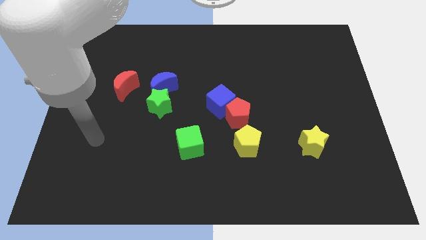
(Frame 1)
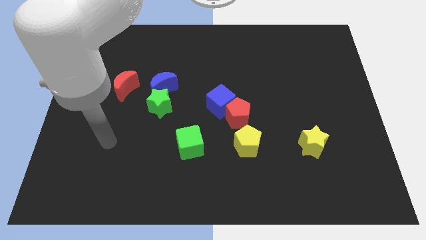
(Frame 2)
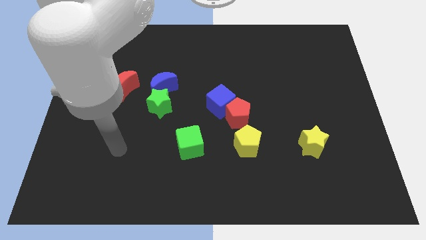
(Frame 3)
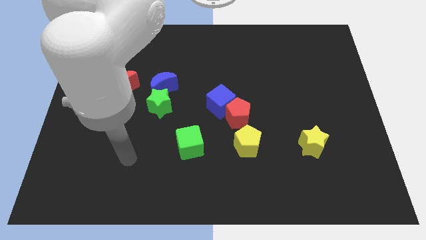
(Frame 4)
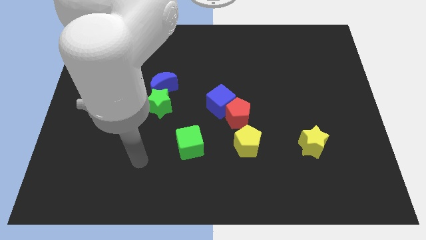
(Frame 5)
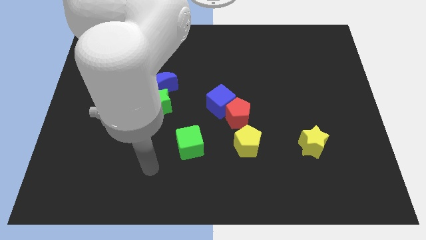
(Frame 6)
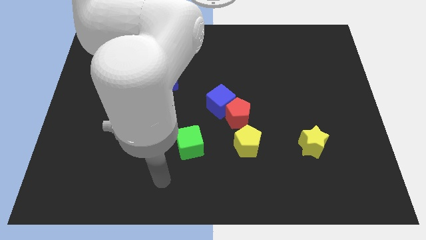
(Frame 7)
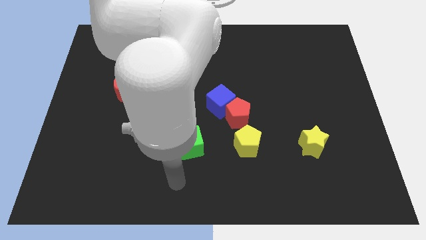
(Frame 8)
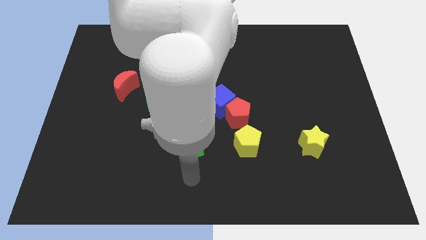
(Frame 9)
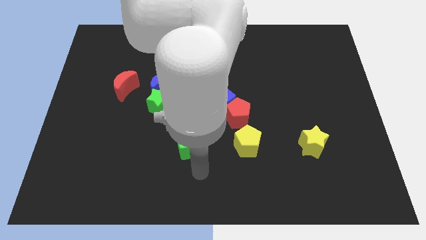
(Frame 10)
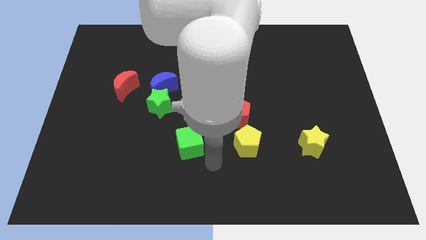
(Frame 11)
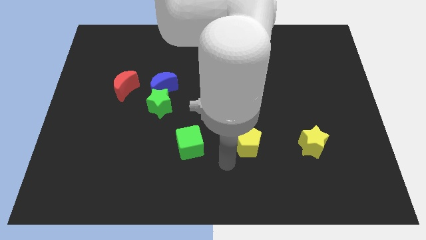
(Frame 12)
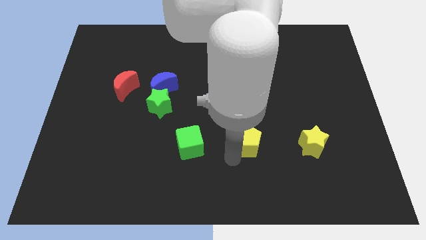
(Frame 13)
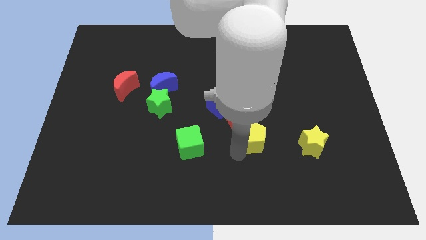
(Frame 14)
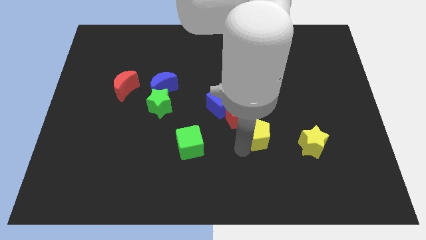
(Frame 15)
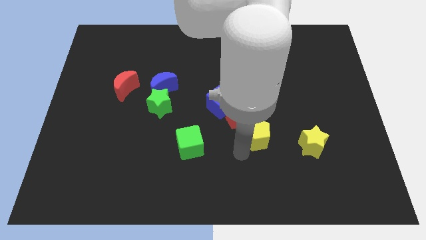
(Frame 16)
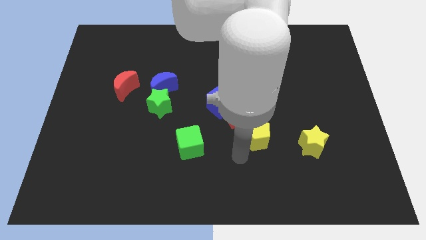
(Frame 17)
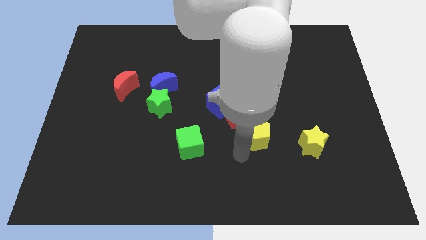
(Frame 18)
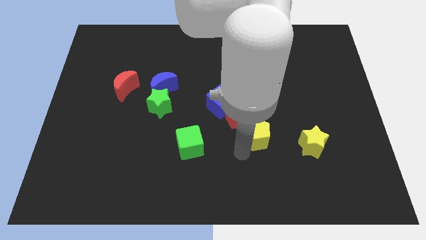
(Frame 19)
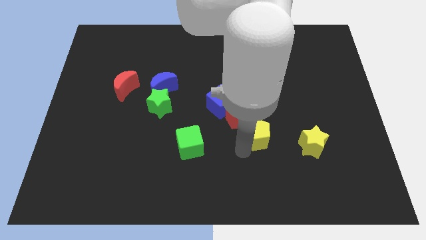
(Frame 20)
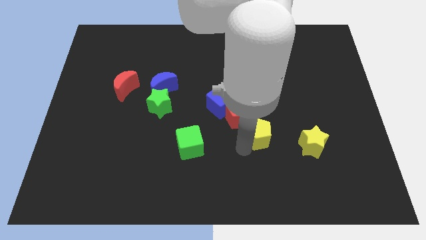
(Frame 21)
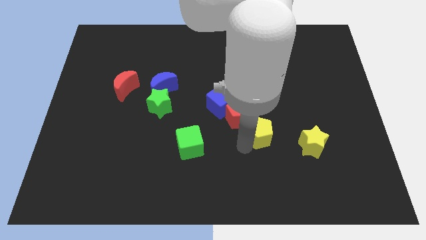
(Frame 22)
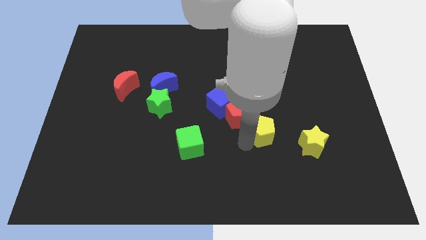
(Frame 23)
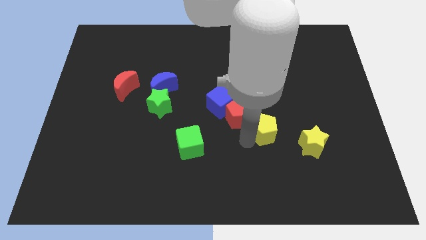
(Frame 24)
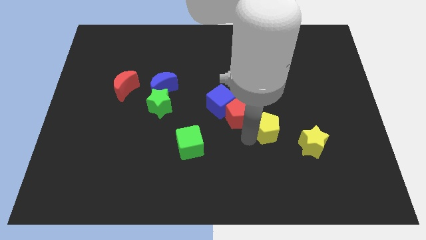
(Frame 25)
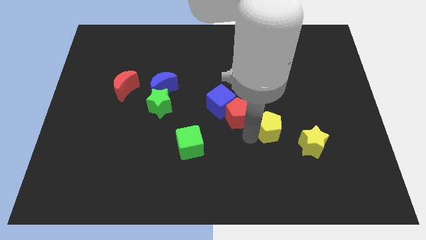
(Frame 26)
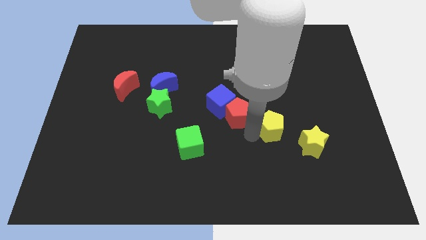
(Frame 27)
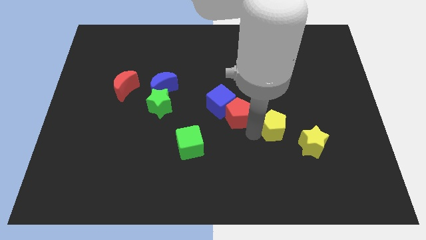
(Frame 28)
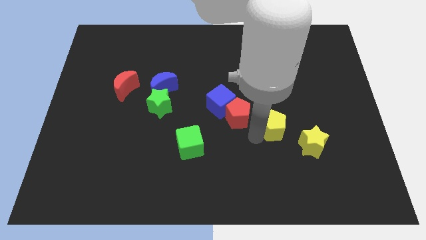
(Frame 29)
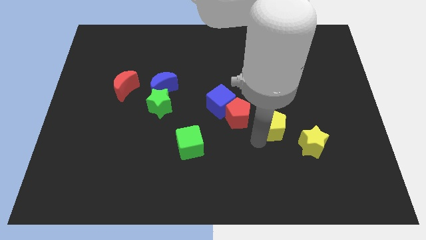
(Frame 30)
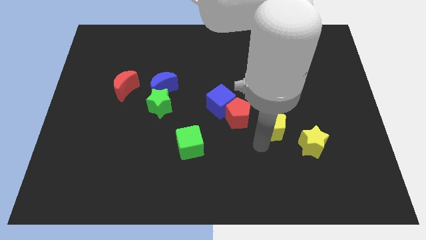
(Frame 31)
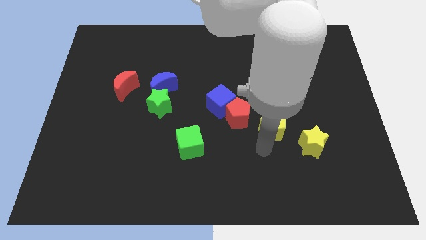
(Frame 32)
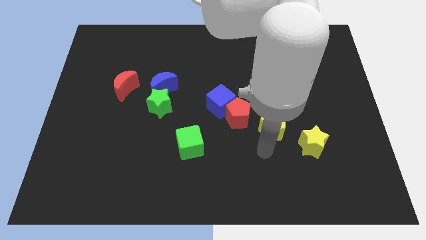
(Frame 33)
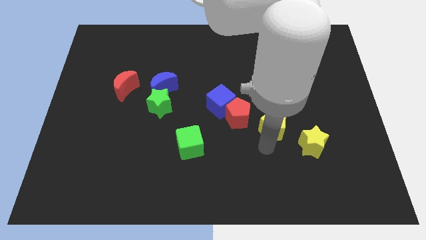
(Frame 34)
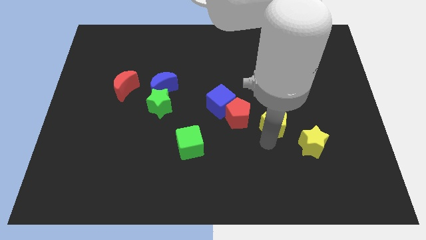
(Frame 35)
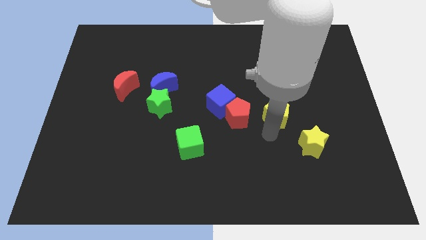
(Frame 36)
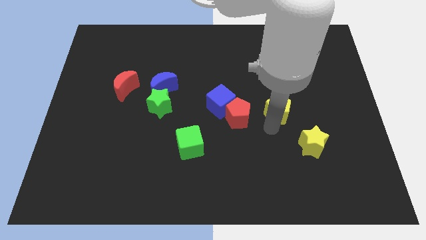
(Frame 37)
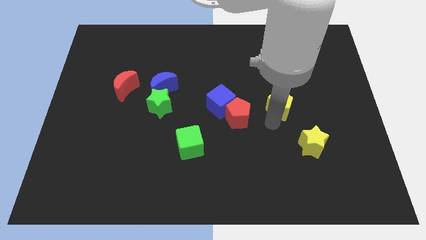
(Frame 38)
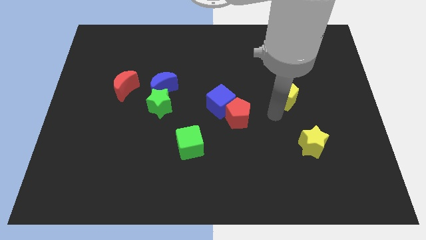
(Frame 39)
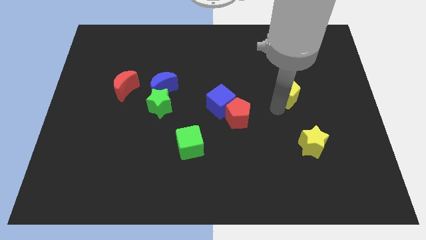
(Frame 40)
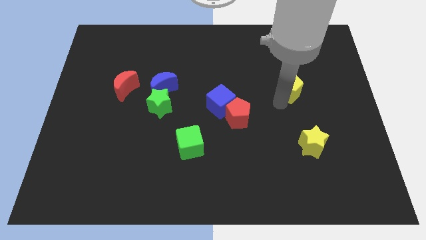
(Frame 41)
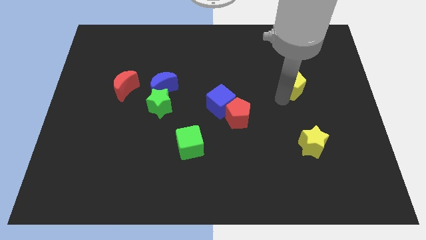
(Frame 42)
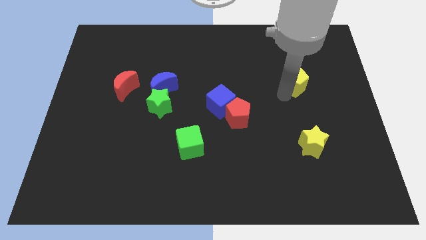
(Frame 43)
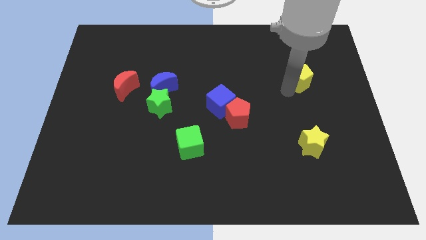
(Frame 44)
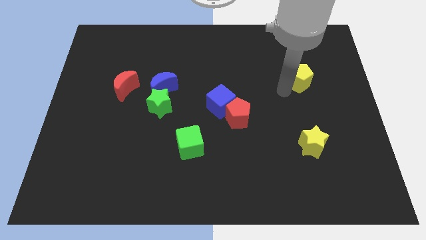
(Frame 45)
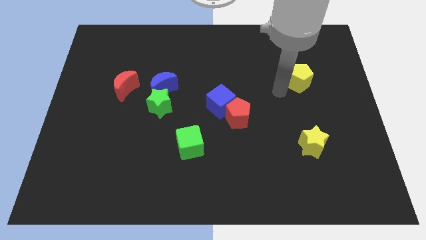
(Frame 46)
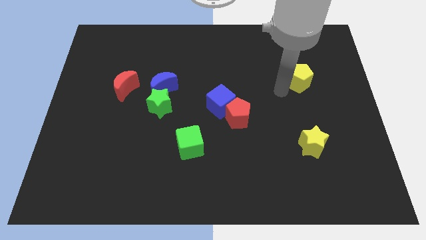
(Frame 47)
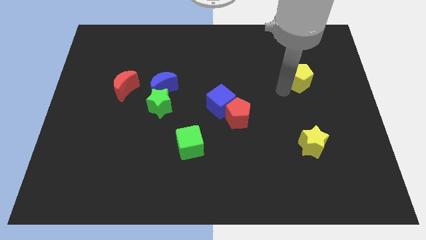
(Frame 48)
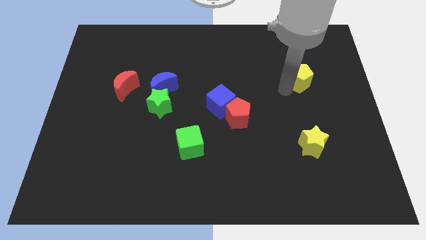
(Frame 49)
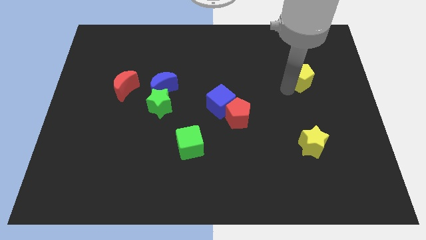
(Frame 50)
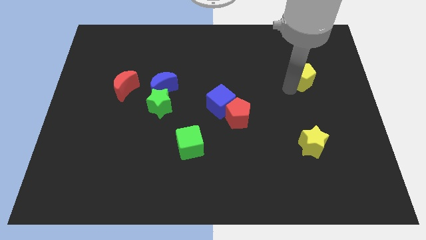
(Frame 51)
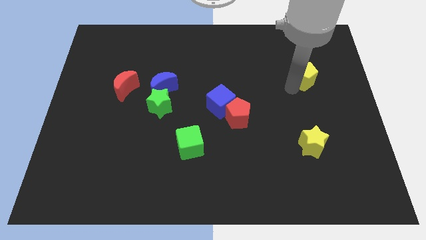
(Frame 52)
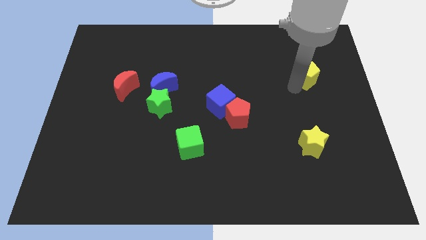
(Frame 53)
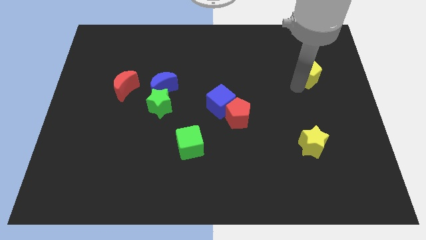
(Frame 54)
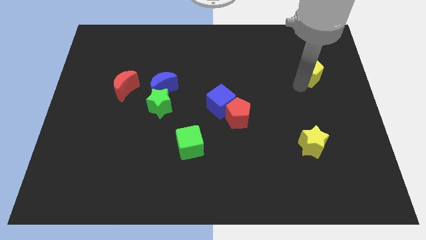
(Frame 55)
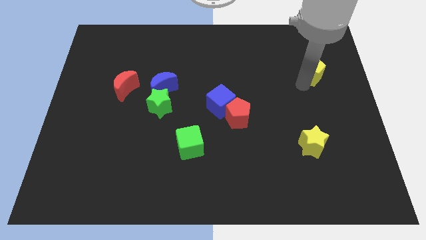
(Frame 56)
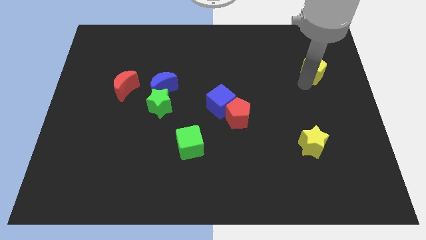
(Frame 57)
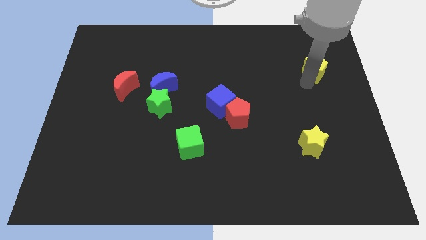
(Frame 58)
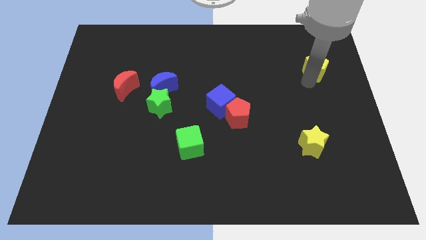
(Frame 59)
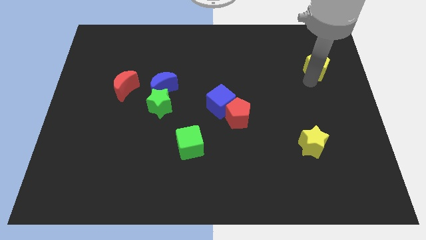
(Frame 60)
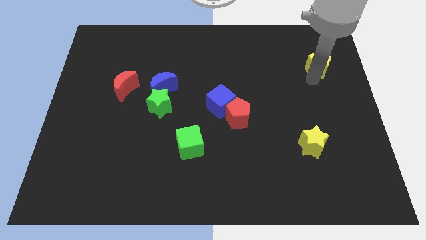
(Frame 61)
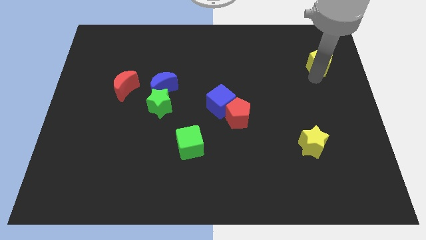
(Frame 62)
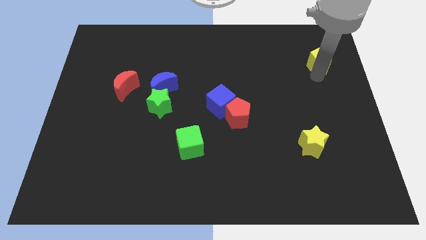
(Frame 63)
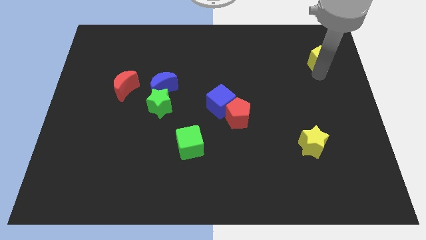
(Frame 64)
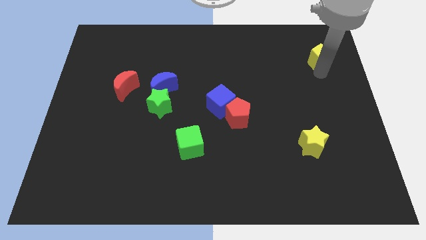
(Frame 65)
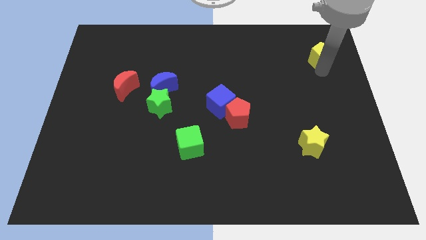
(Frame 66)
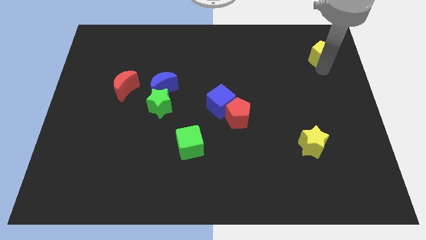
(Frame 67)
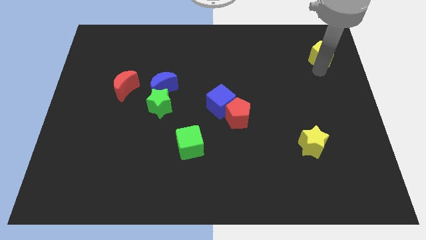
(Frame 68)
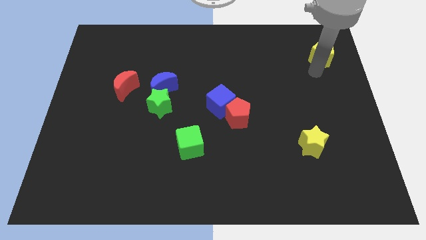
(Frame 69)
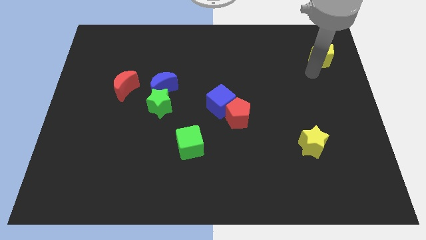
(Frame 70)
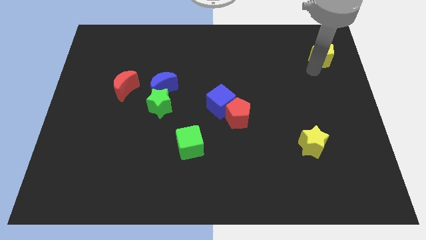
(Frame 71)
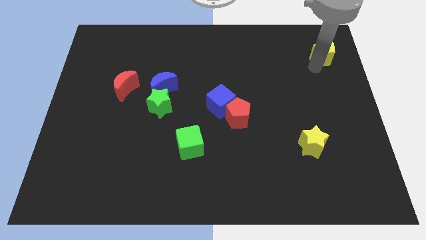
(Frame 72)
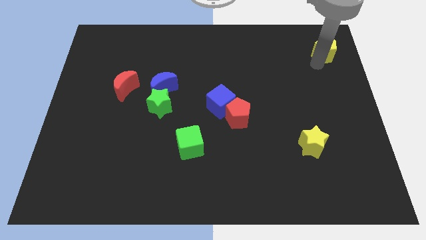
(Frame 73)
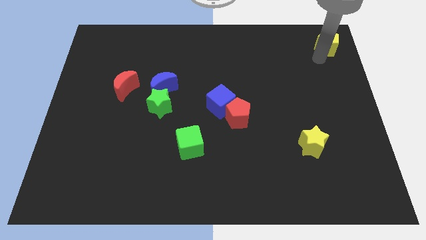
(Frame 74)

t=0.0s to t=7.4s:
slide the yellow pentagon to the upper right corner
